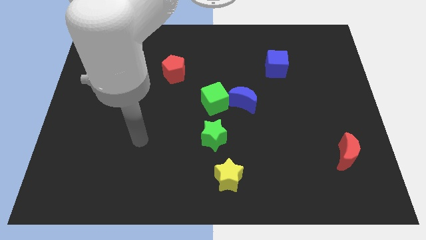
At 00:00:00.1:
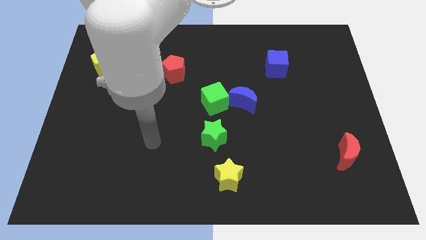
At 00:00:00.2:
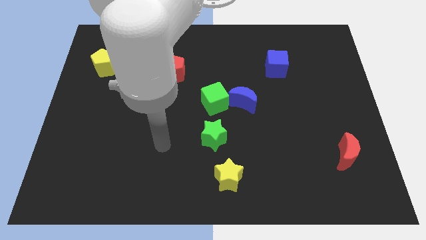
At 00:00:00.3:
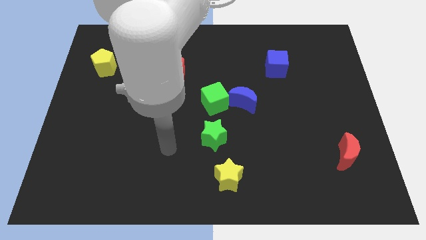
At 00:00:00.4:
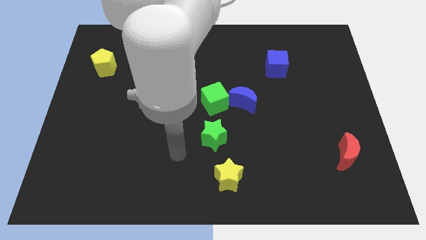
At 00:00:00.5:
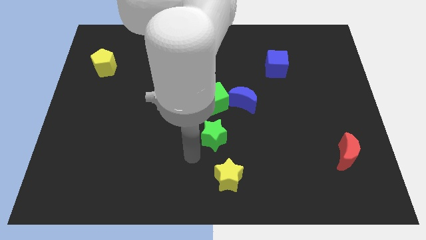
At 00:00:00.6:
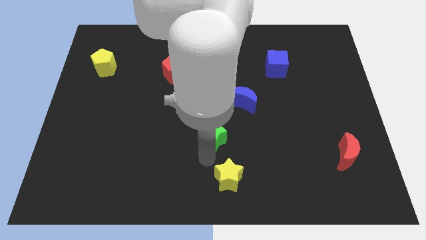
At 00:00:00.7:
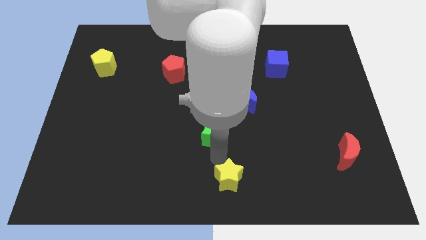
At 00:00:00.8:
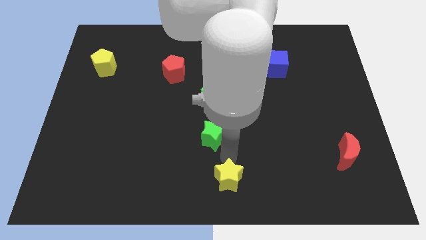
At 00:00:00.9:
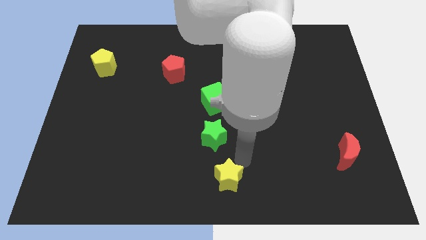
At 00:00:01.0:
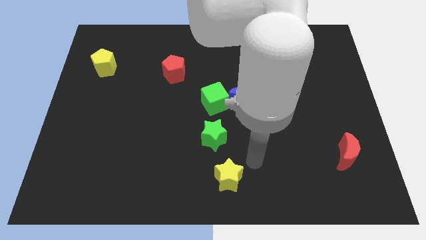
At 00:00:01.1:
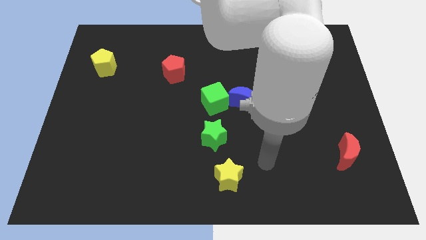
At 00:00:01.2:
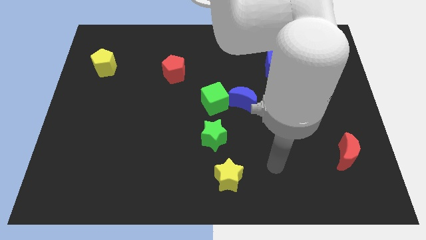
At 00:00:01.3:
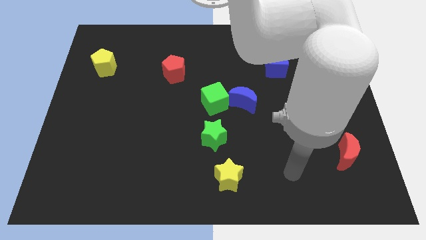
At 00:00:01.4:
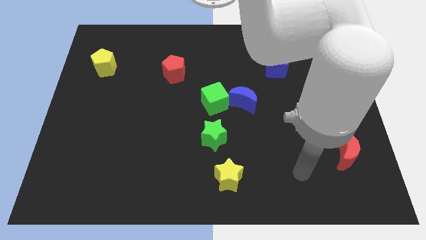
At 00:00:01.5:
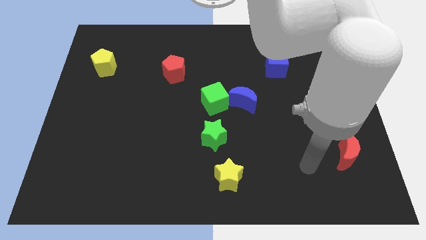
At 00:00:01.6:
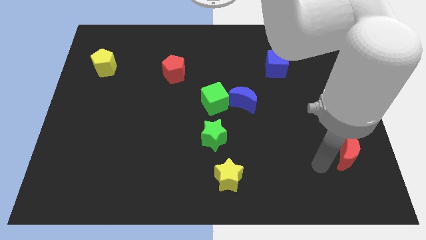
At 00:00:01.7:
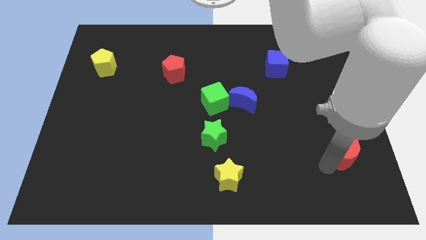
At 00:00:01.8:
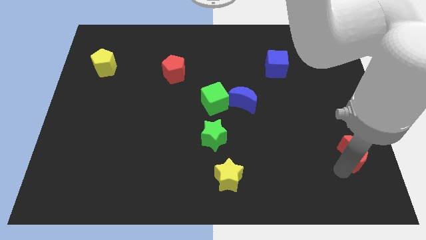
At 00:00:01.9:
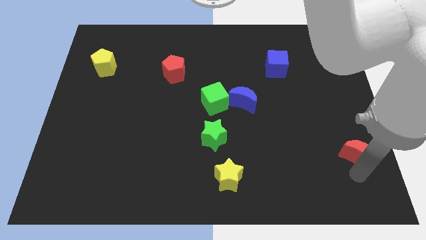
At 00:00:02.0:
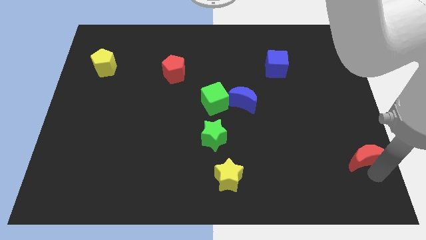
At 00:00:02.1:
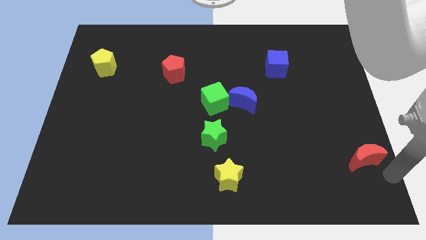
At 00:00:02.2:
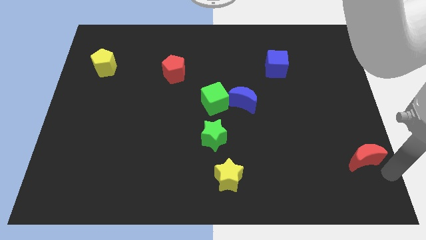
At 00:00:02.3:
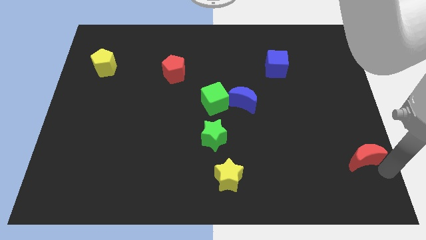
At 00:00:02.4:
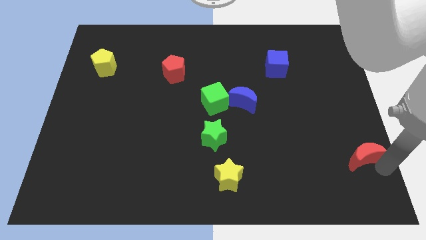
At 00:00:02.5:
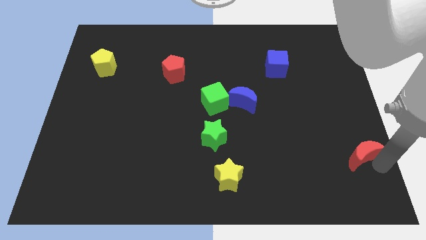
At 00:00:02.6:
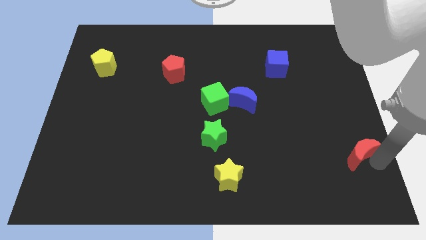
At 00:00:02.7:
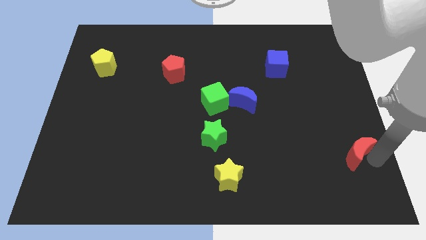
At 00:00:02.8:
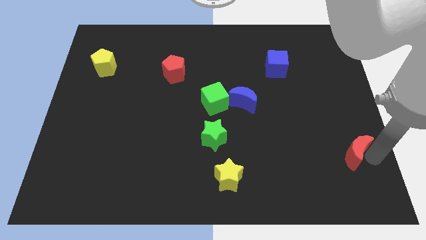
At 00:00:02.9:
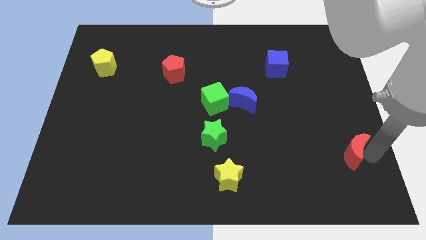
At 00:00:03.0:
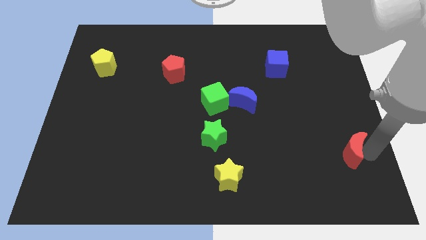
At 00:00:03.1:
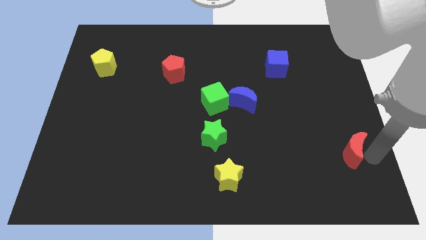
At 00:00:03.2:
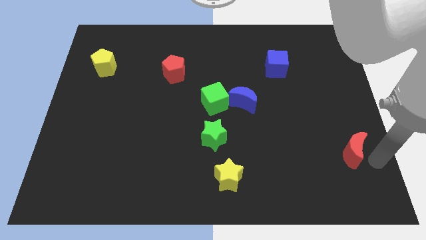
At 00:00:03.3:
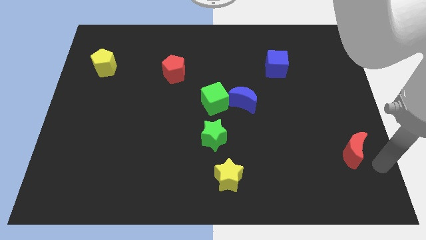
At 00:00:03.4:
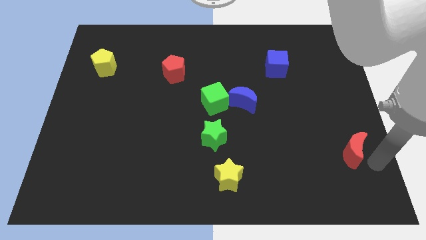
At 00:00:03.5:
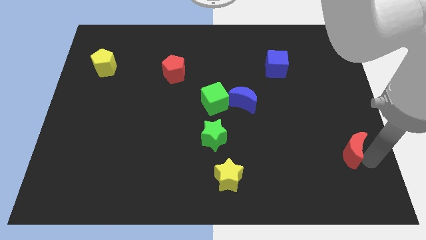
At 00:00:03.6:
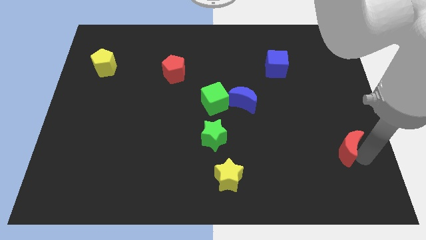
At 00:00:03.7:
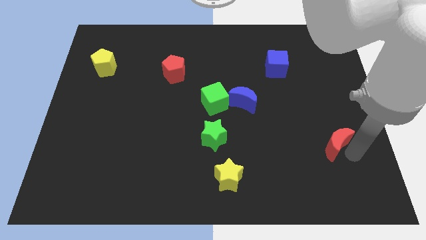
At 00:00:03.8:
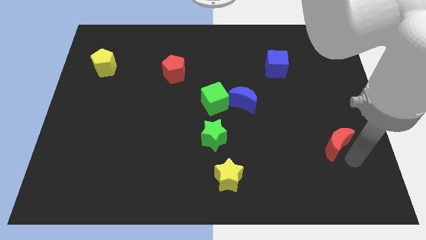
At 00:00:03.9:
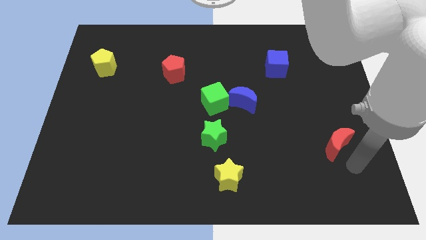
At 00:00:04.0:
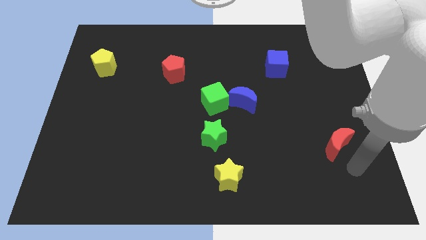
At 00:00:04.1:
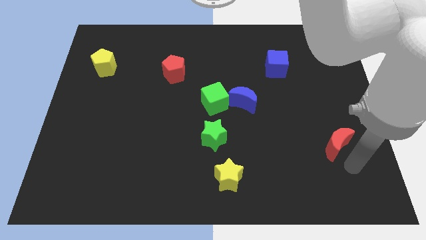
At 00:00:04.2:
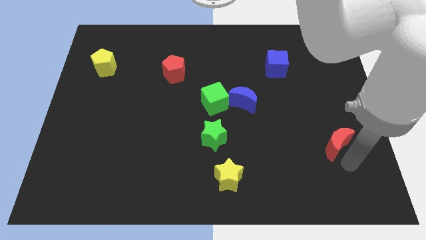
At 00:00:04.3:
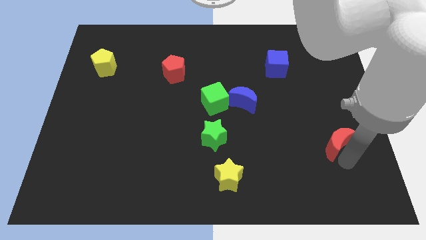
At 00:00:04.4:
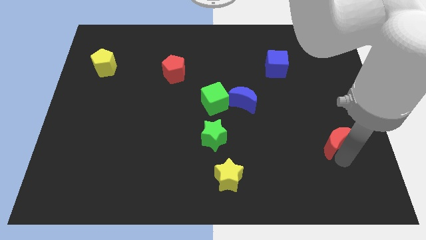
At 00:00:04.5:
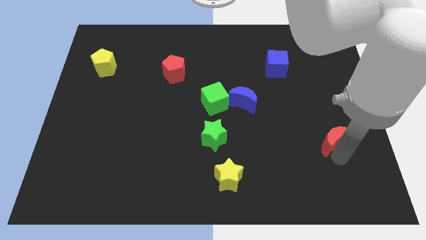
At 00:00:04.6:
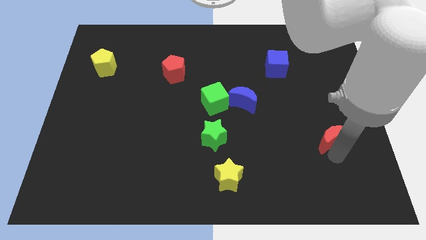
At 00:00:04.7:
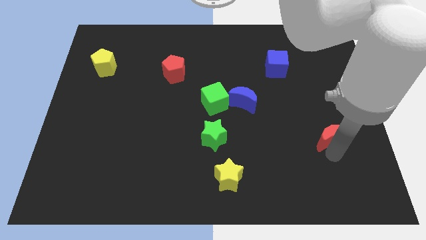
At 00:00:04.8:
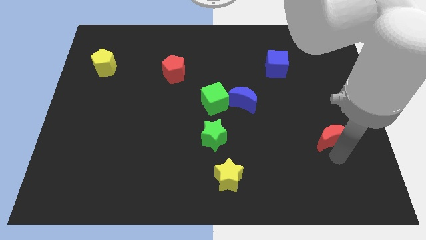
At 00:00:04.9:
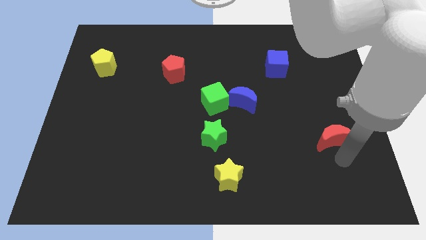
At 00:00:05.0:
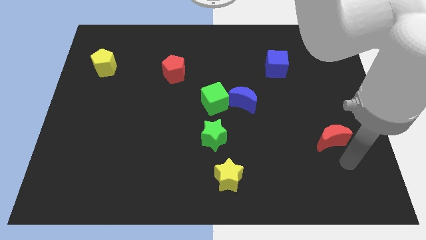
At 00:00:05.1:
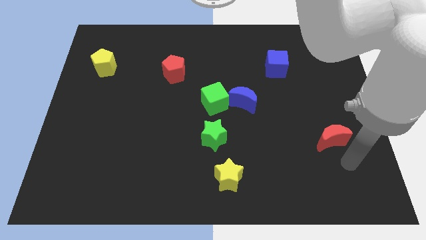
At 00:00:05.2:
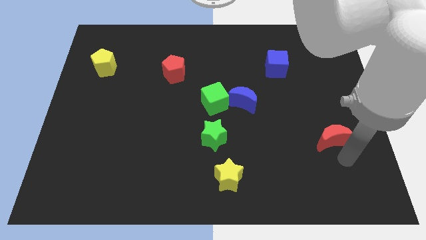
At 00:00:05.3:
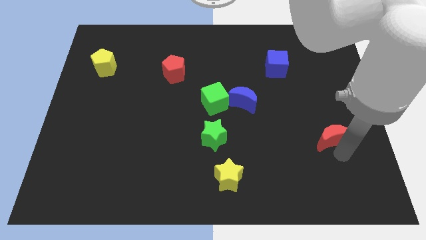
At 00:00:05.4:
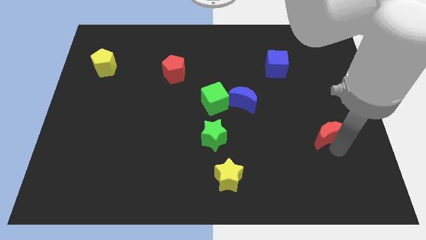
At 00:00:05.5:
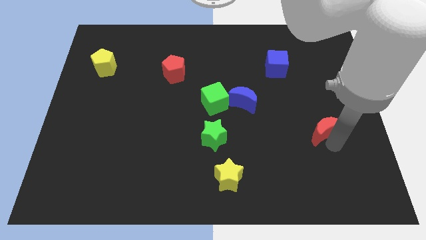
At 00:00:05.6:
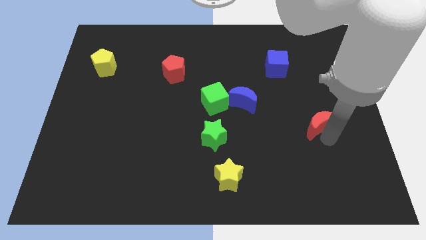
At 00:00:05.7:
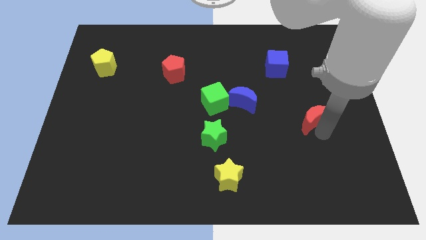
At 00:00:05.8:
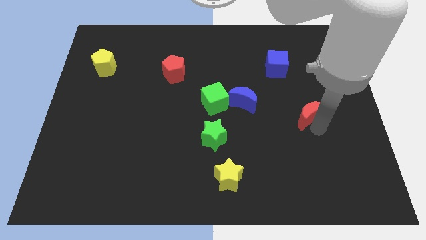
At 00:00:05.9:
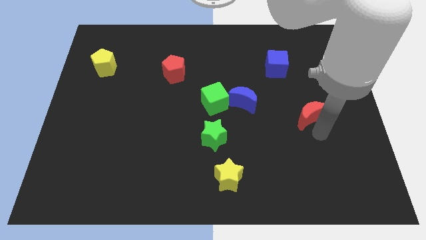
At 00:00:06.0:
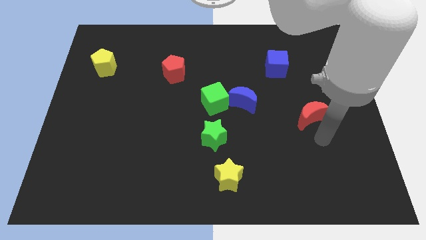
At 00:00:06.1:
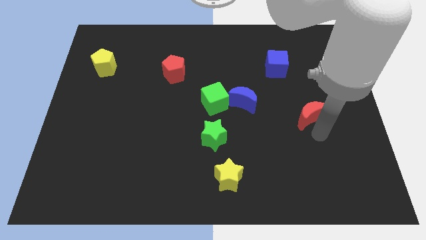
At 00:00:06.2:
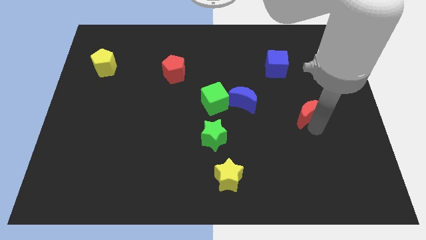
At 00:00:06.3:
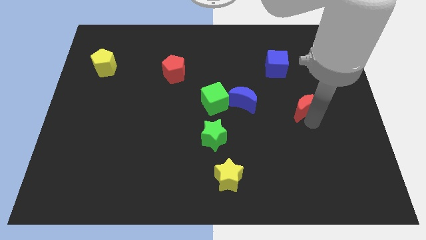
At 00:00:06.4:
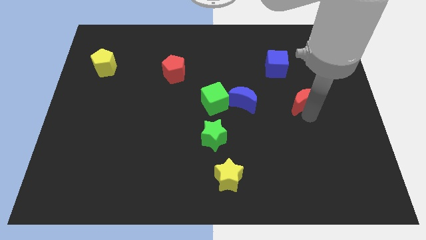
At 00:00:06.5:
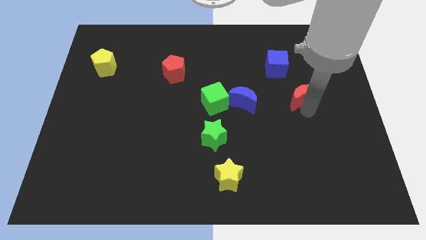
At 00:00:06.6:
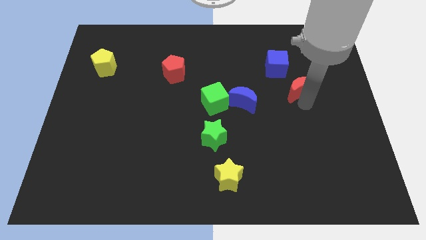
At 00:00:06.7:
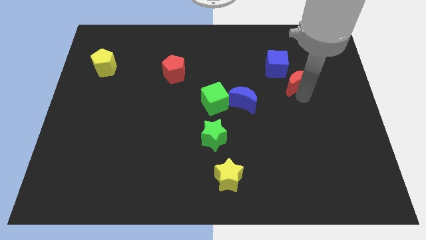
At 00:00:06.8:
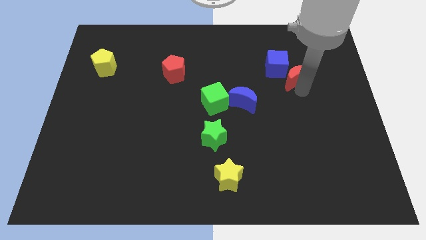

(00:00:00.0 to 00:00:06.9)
move the red moon to the blue cube
